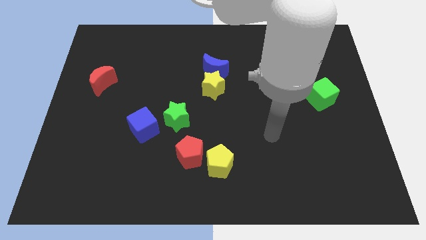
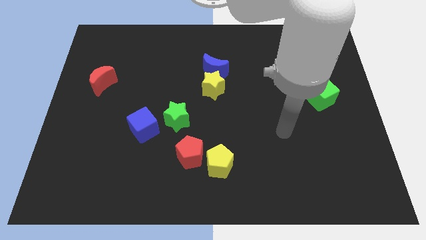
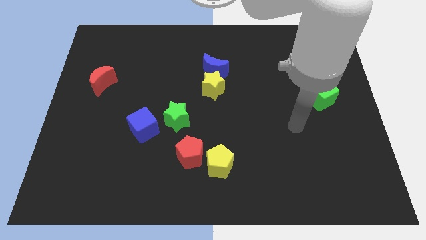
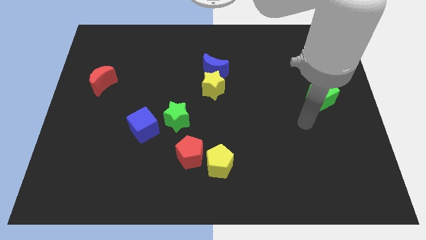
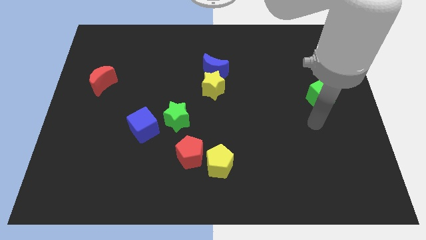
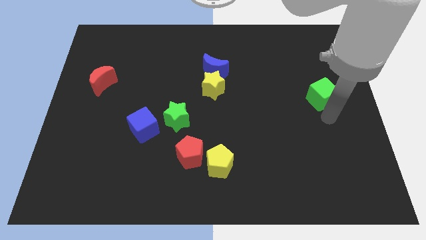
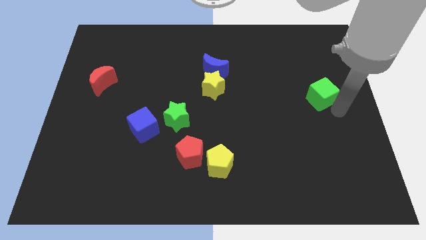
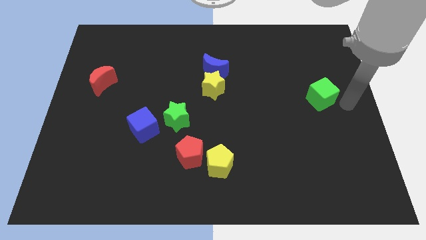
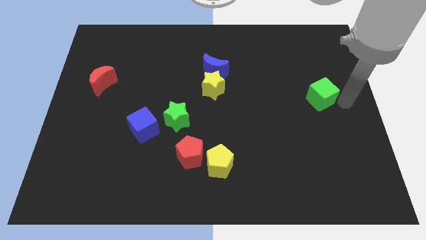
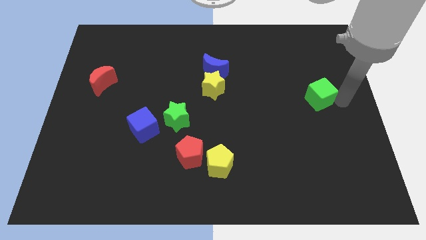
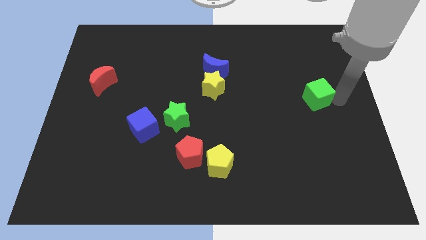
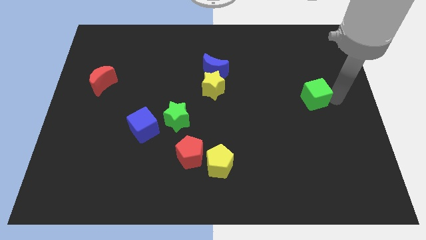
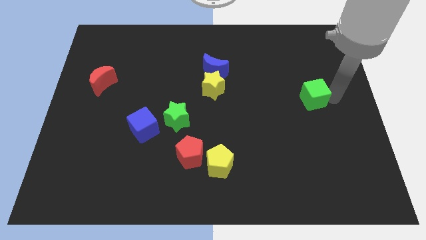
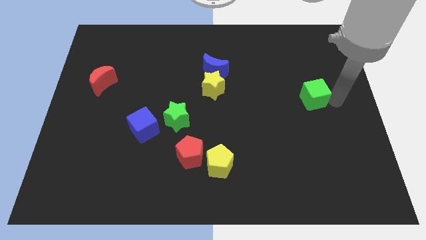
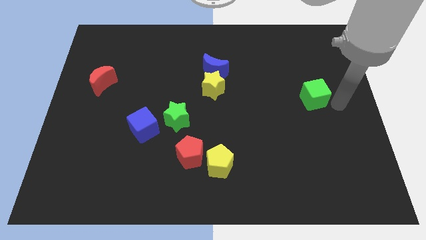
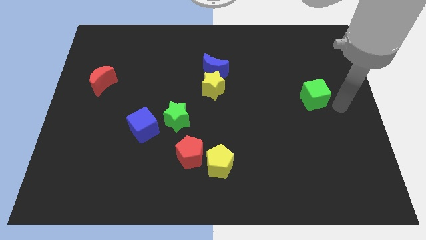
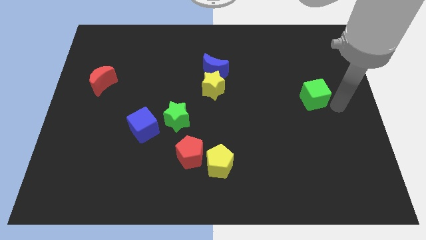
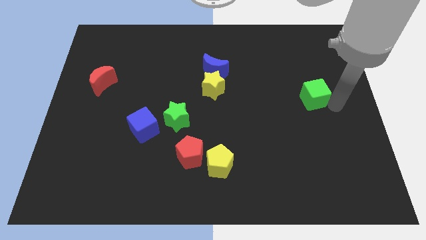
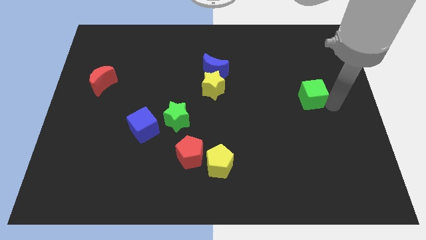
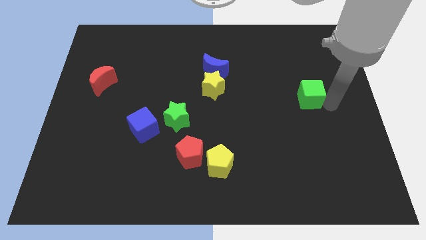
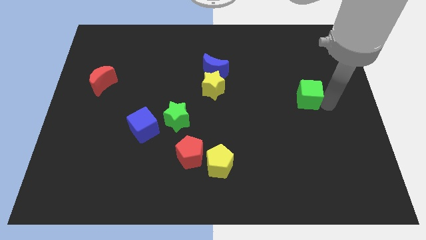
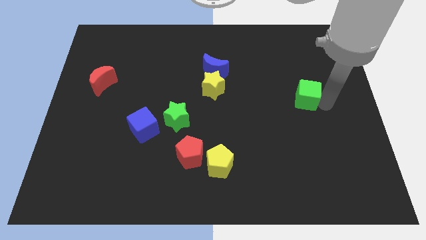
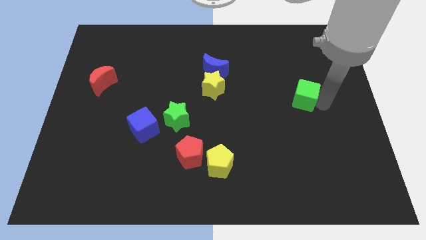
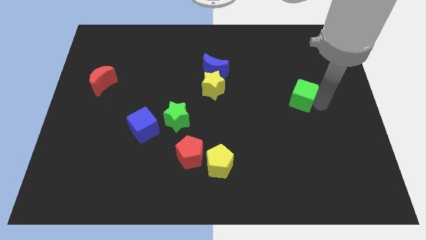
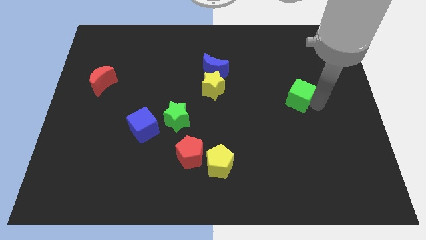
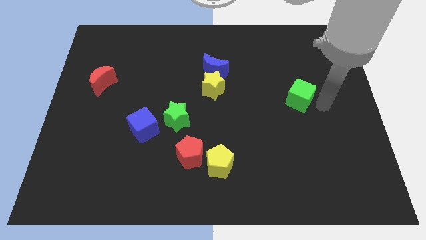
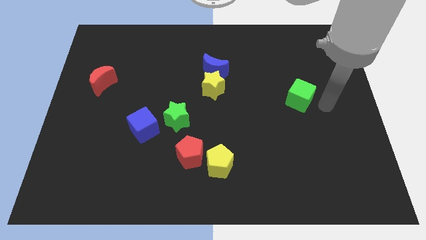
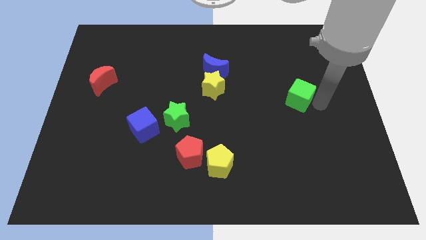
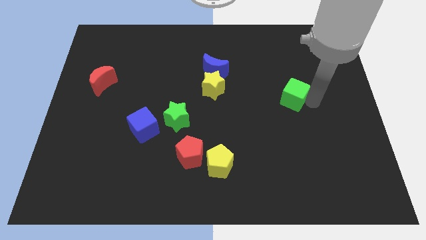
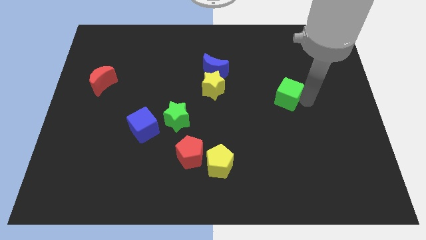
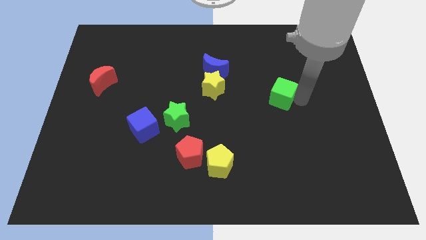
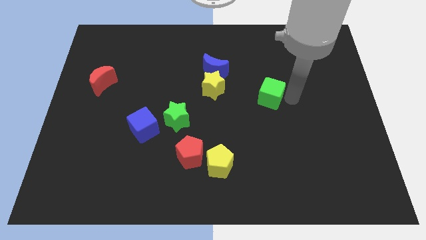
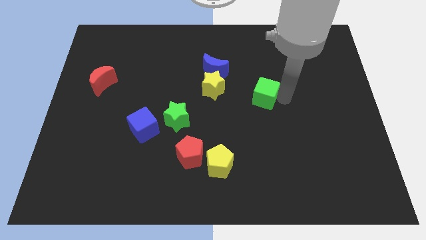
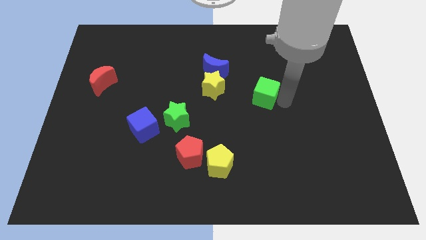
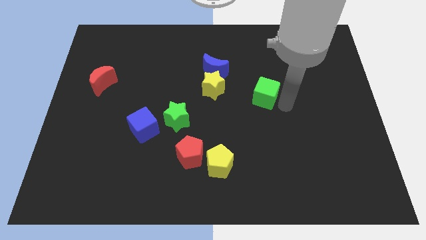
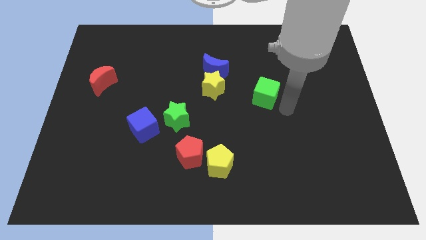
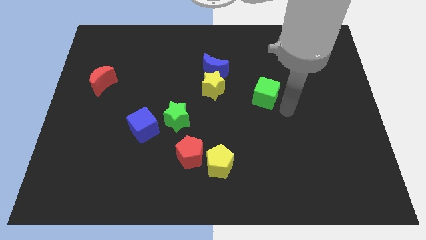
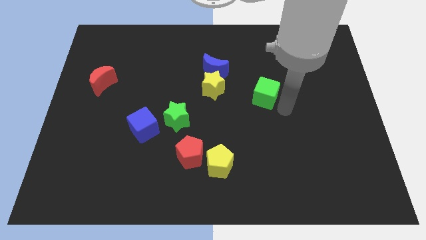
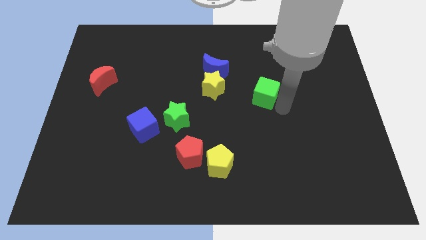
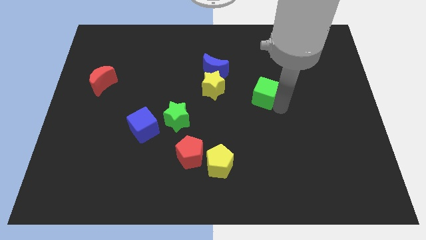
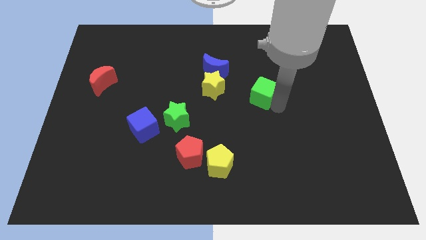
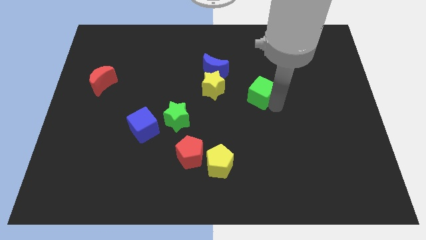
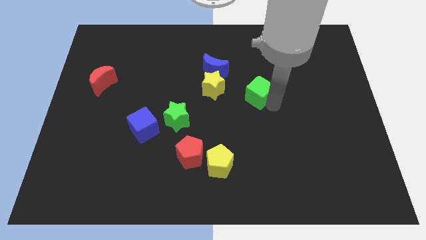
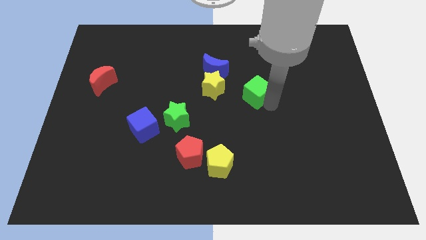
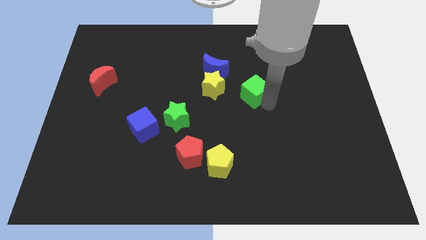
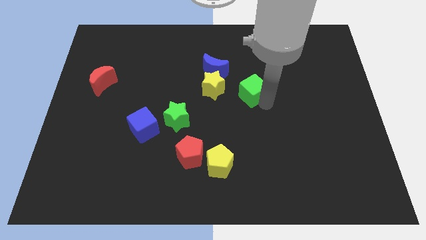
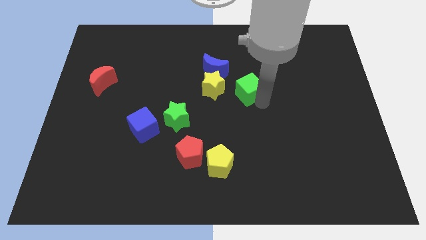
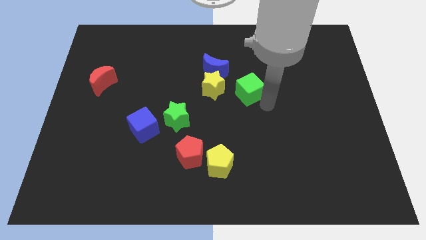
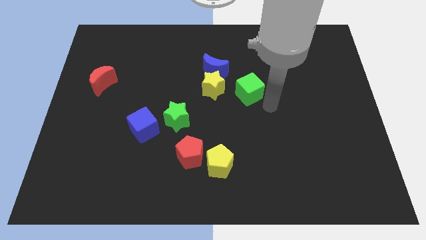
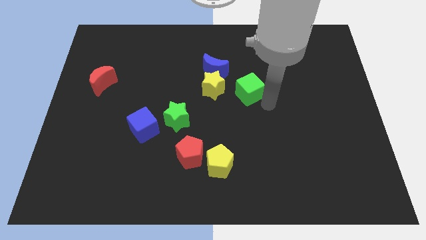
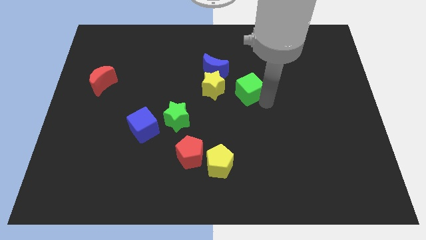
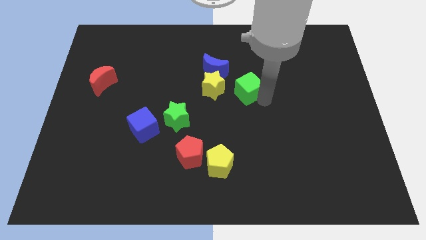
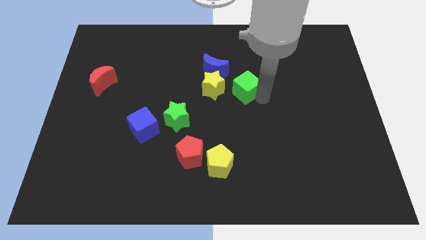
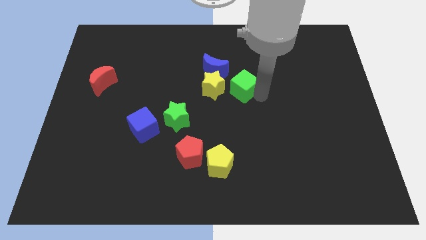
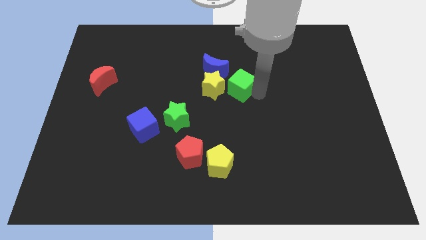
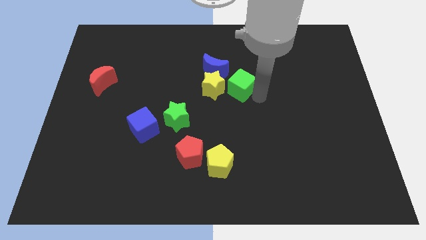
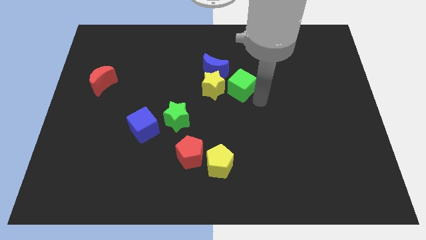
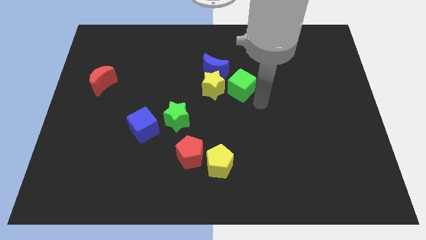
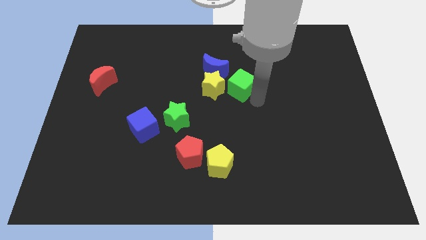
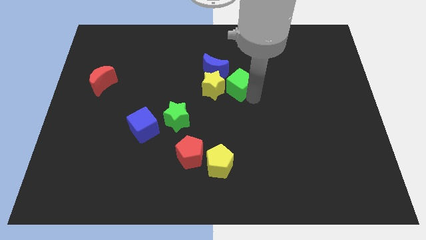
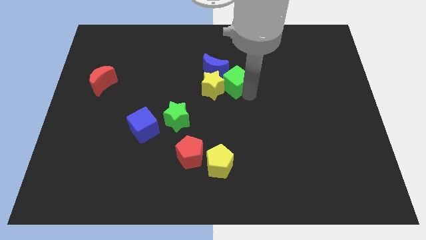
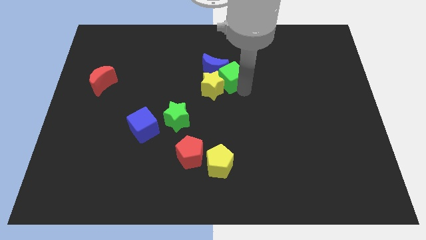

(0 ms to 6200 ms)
slide the green cube close to the blue moon

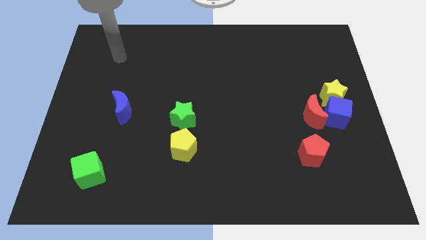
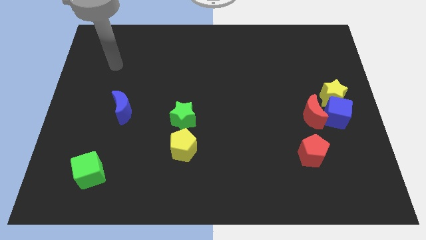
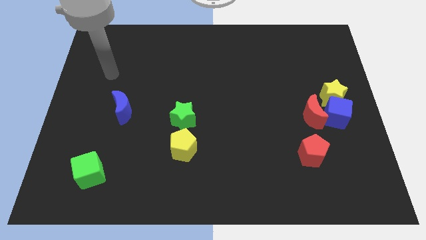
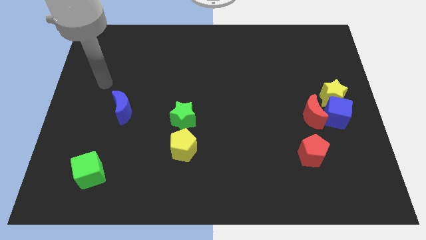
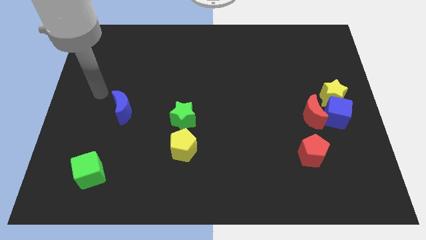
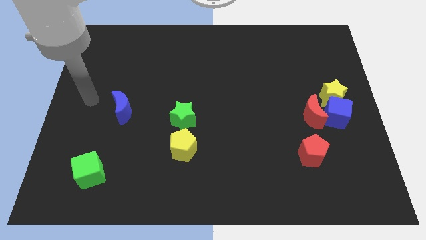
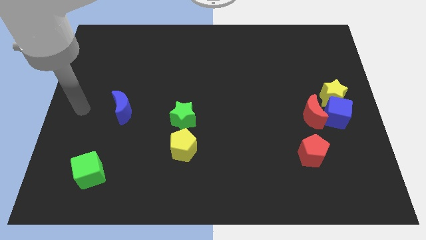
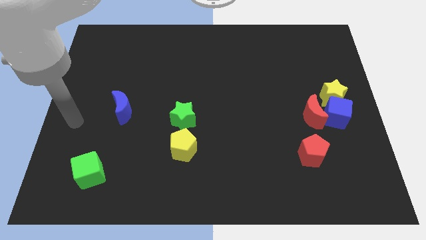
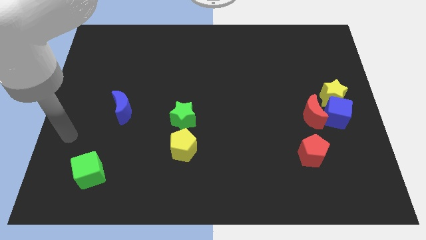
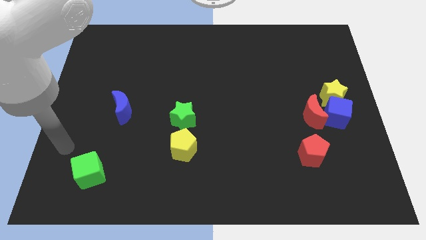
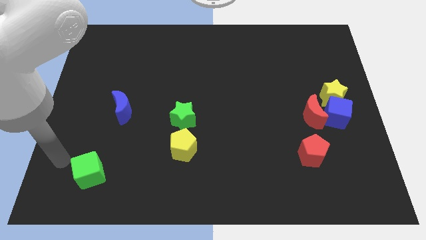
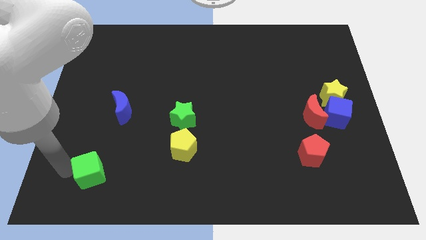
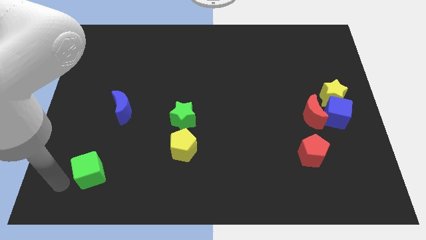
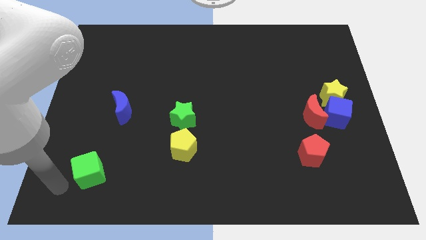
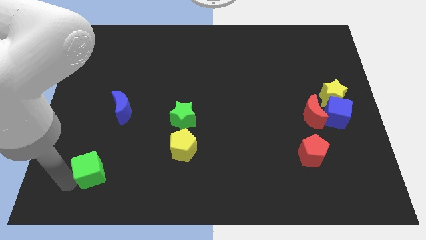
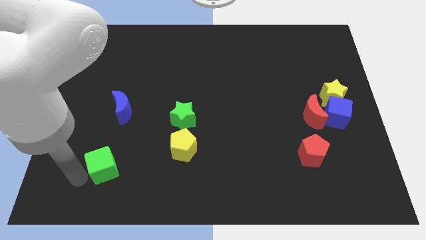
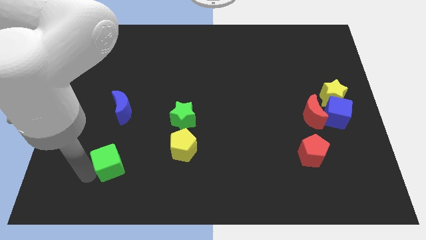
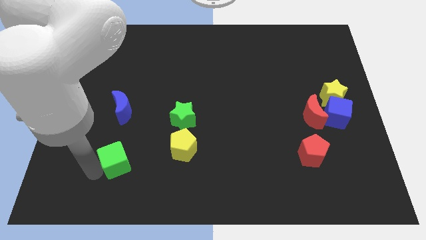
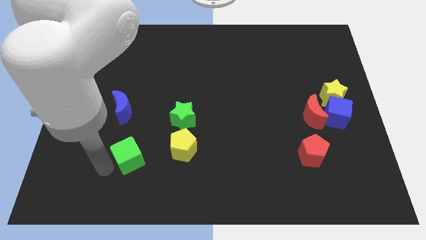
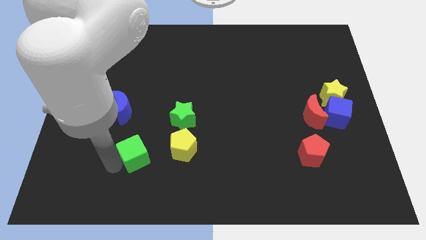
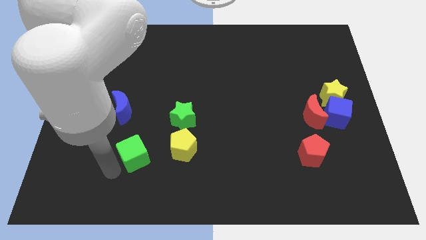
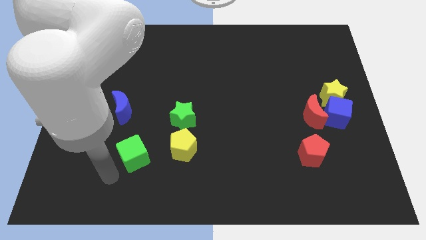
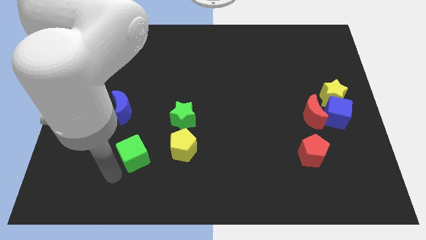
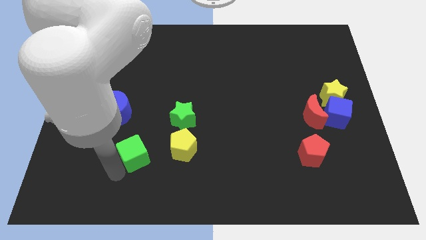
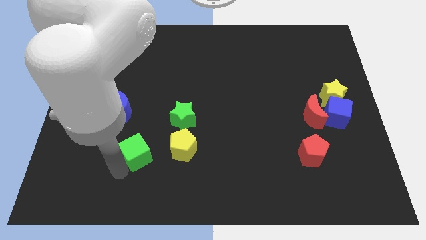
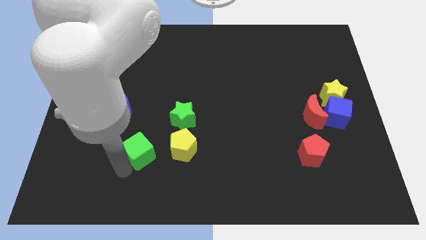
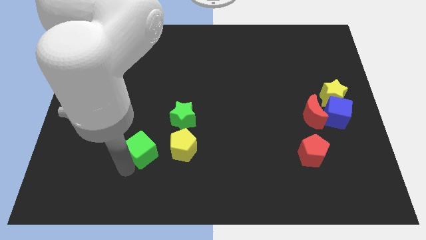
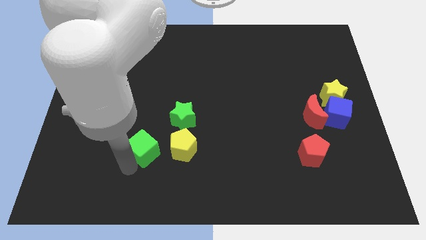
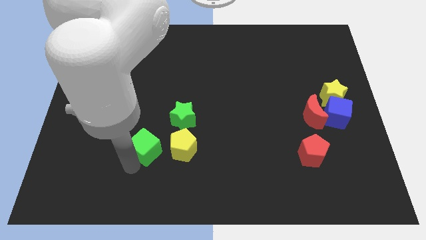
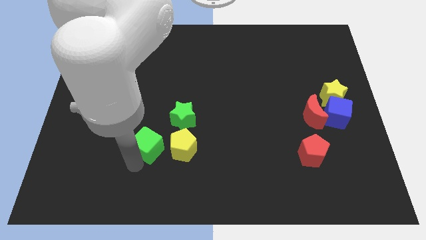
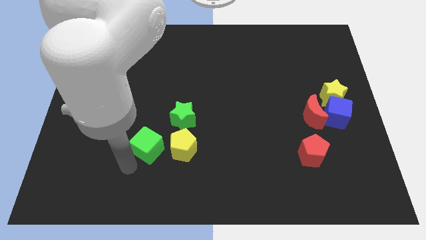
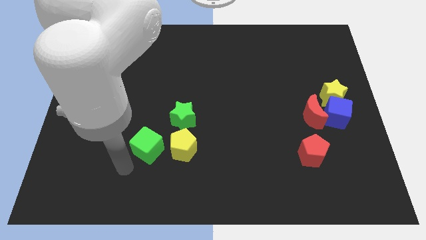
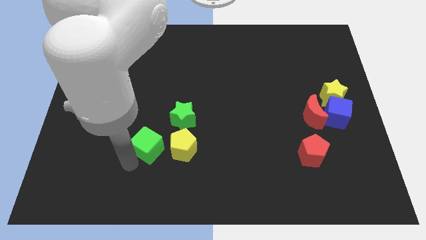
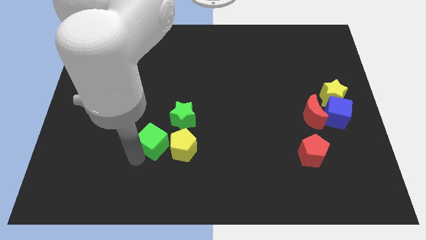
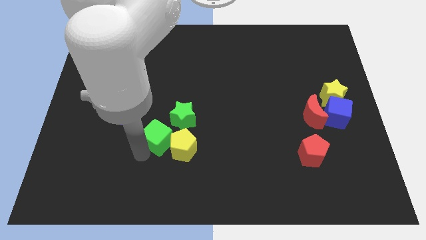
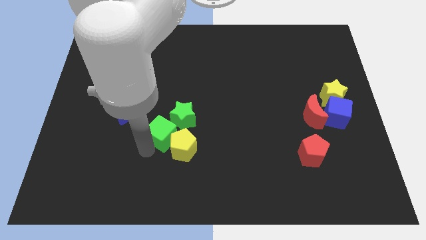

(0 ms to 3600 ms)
put the green cube close to the green star
